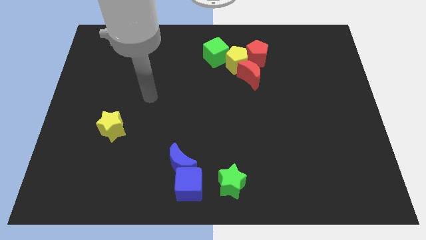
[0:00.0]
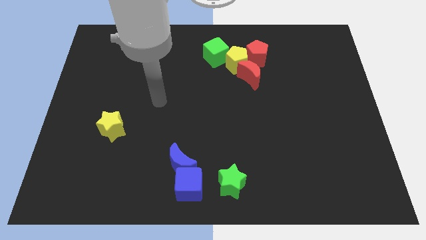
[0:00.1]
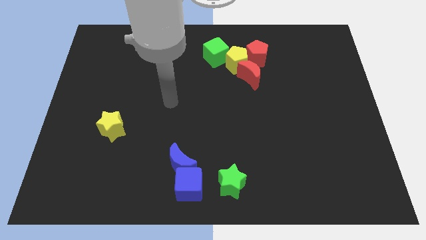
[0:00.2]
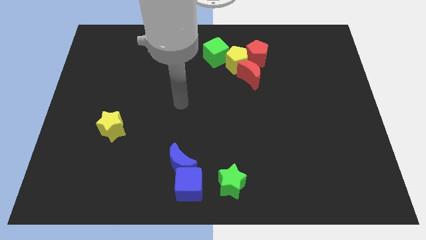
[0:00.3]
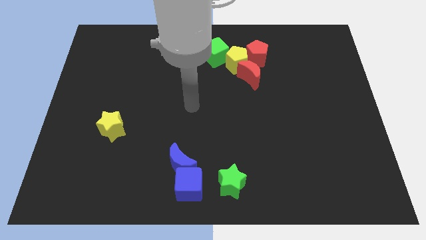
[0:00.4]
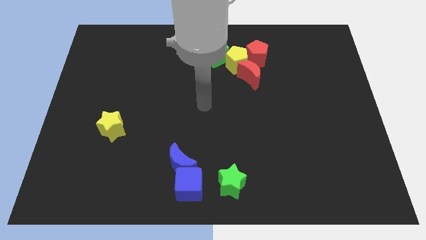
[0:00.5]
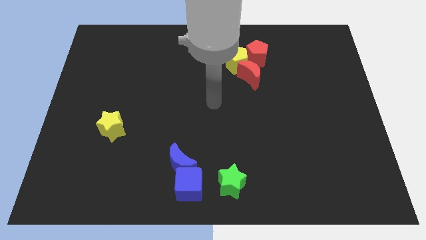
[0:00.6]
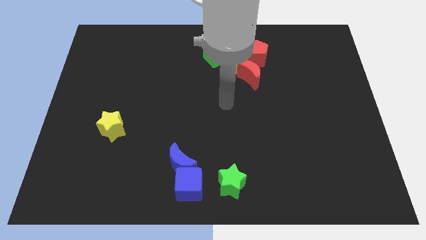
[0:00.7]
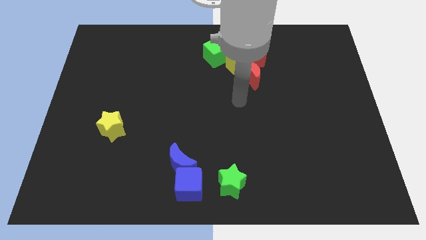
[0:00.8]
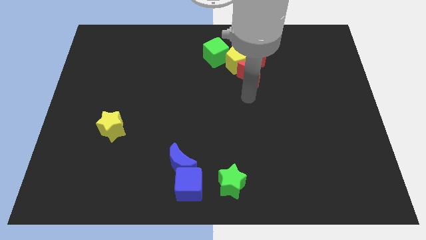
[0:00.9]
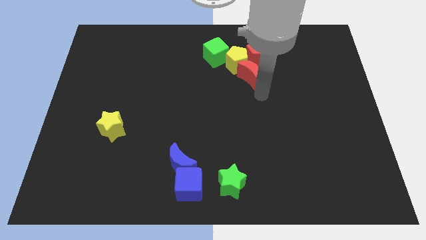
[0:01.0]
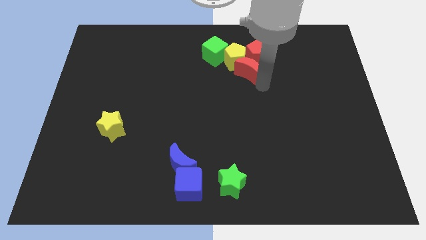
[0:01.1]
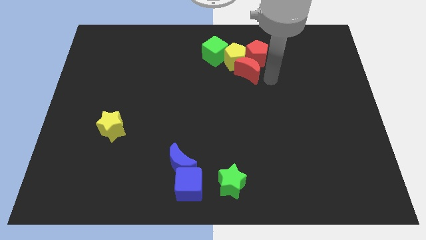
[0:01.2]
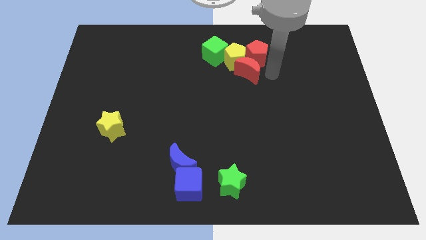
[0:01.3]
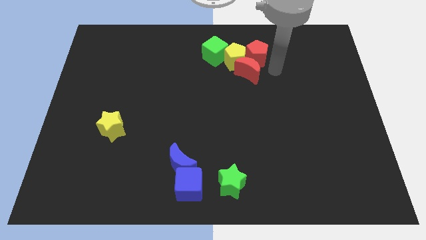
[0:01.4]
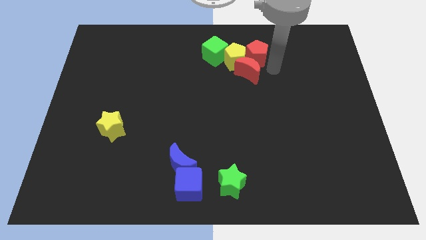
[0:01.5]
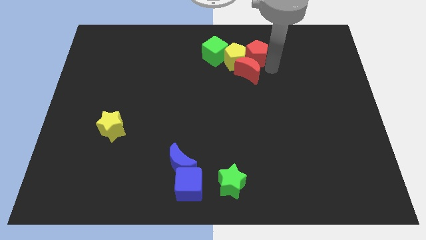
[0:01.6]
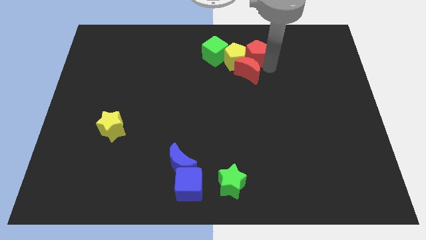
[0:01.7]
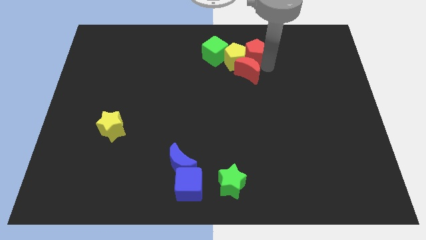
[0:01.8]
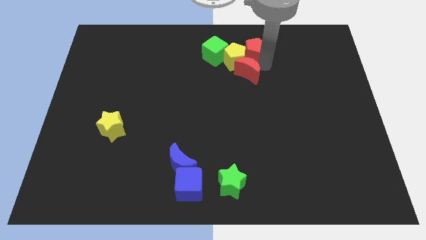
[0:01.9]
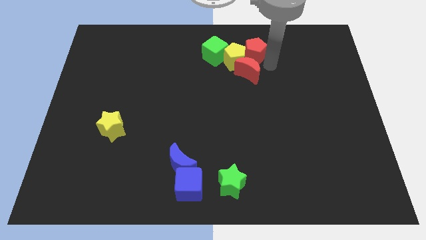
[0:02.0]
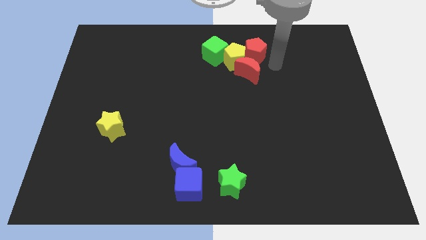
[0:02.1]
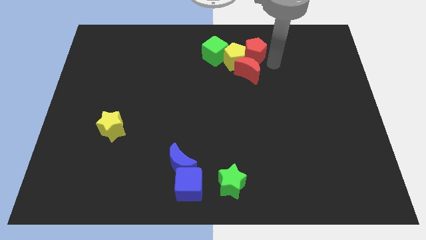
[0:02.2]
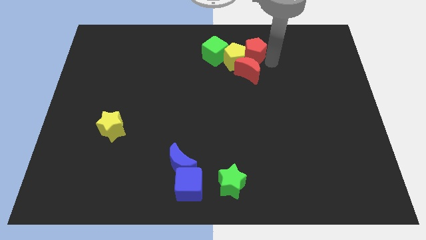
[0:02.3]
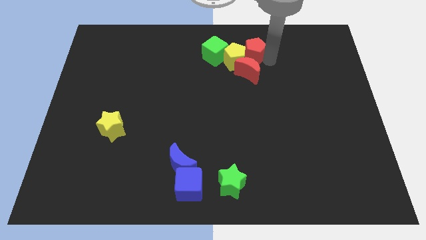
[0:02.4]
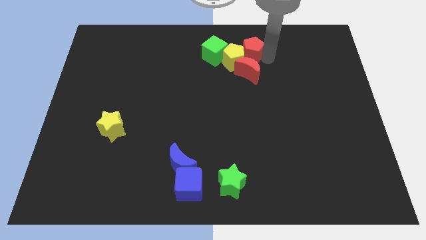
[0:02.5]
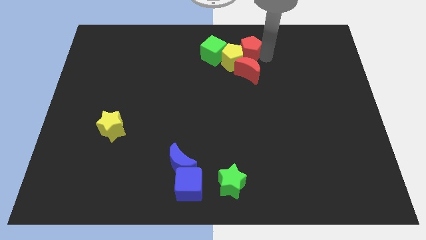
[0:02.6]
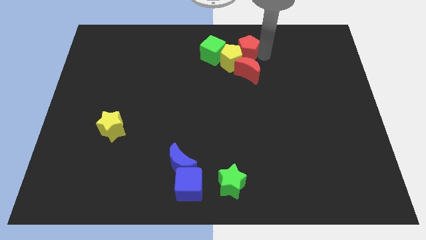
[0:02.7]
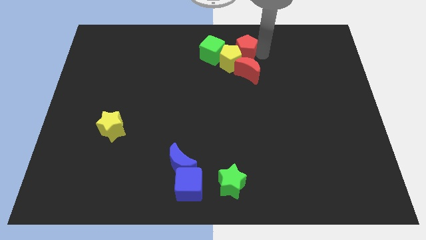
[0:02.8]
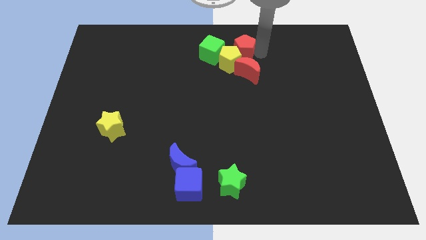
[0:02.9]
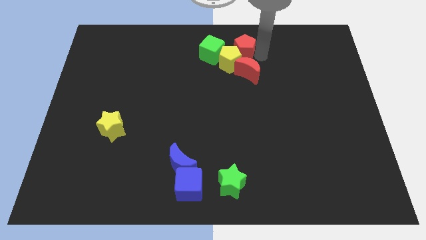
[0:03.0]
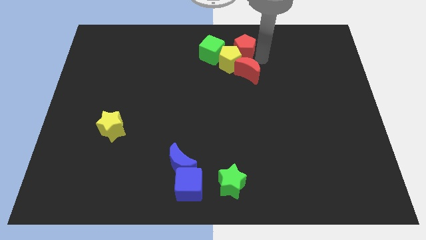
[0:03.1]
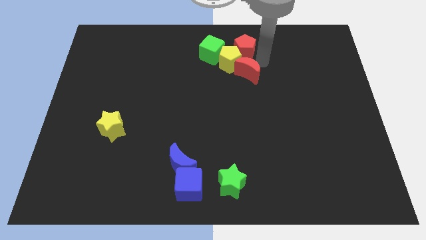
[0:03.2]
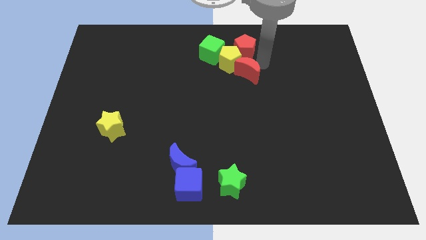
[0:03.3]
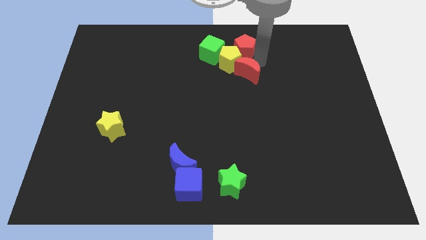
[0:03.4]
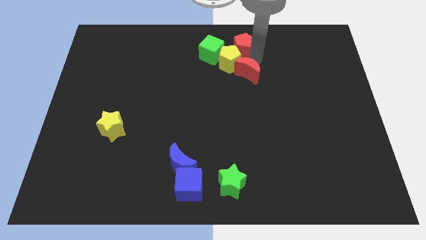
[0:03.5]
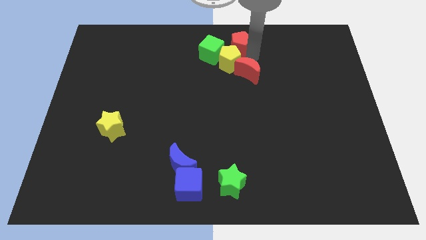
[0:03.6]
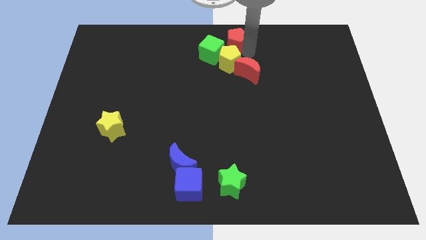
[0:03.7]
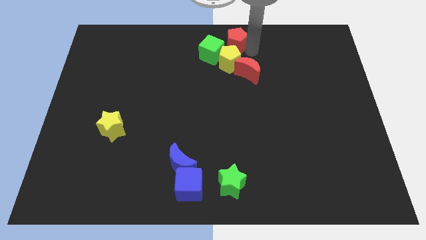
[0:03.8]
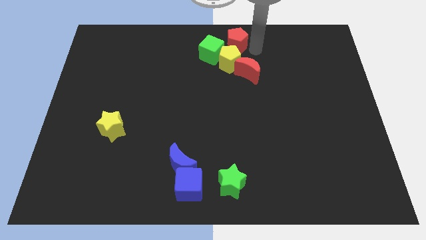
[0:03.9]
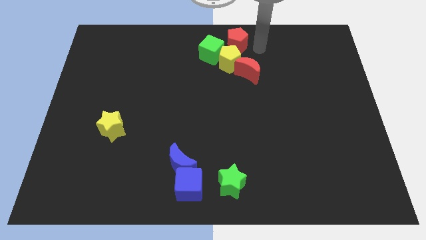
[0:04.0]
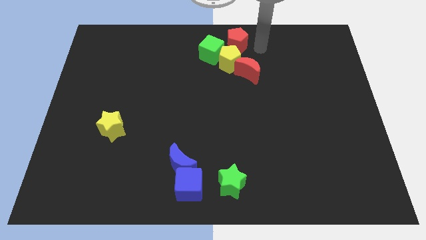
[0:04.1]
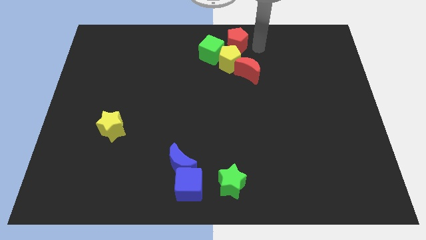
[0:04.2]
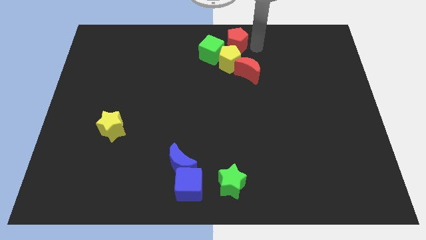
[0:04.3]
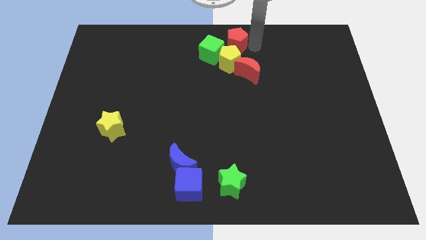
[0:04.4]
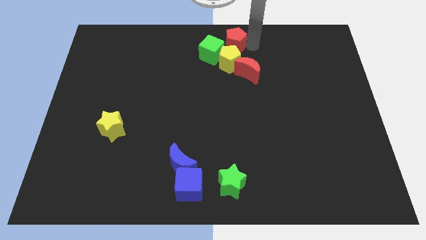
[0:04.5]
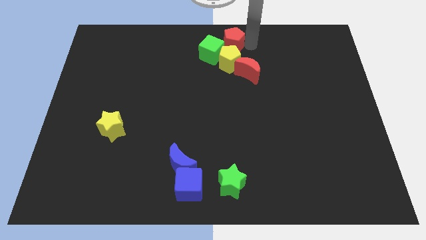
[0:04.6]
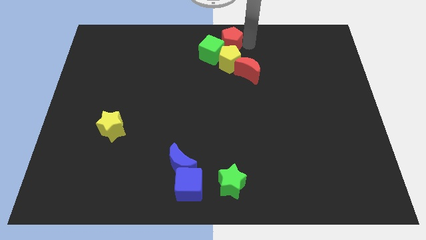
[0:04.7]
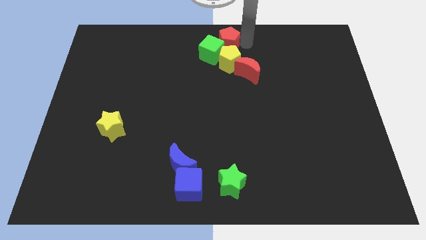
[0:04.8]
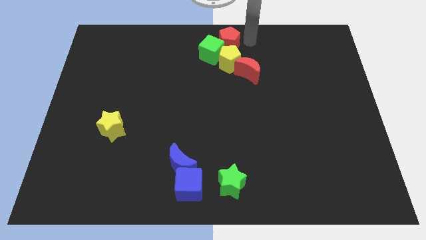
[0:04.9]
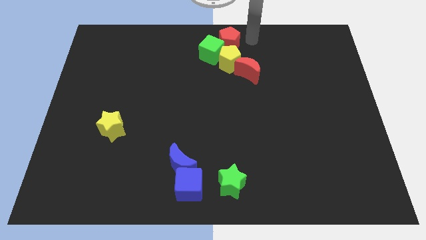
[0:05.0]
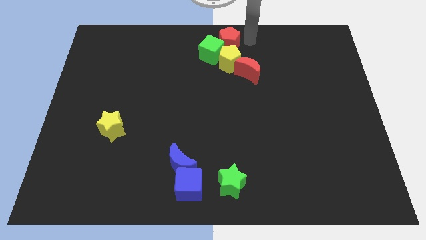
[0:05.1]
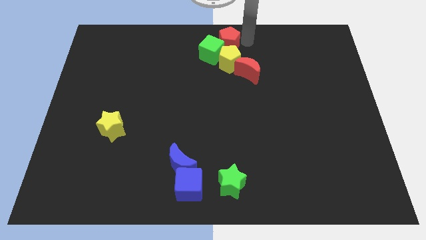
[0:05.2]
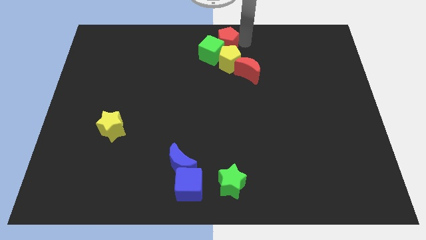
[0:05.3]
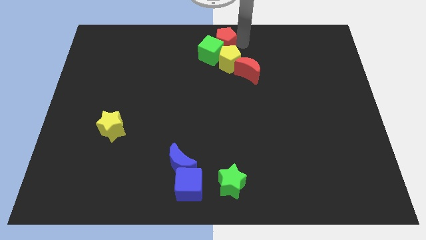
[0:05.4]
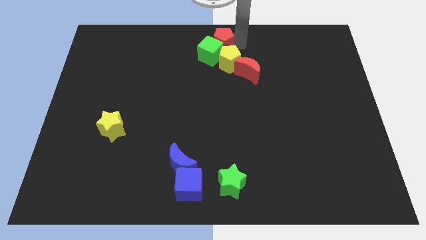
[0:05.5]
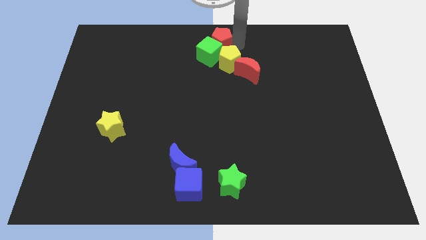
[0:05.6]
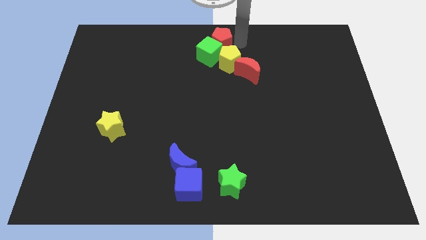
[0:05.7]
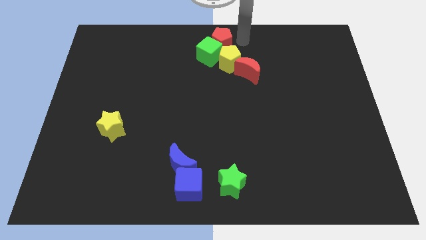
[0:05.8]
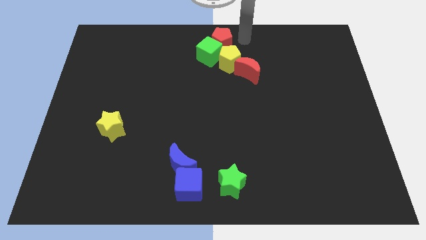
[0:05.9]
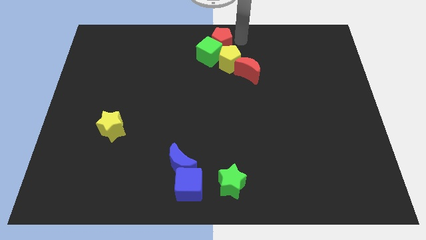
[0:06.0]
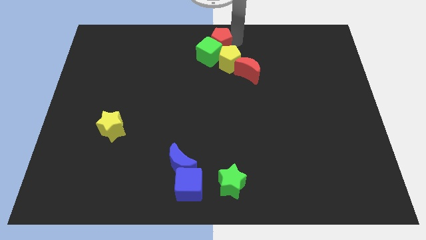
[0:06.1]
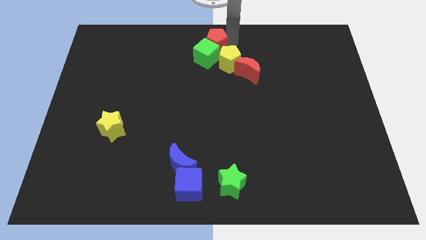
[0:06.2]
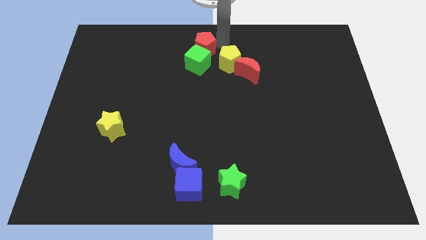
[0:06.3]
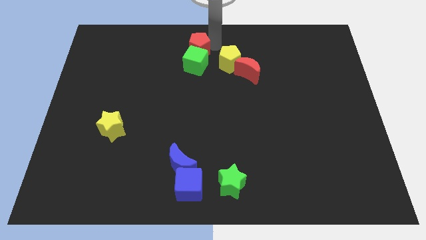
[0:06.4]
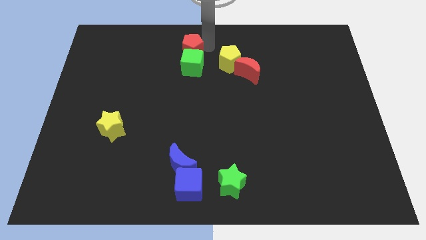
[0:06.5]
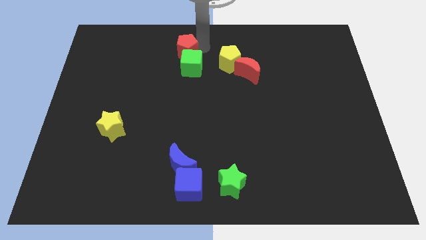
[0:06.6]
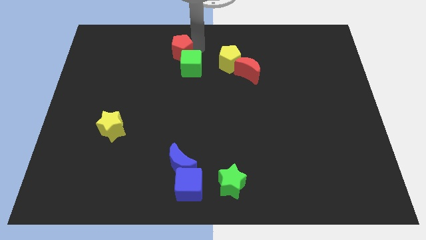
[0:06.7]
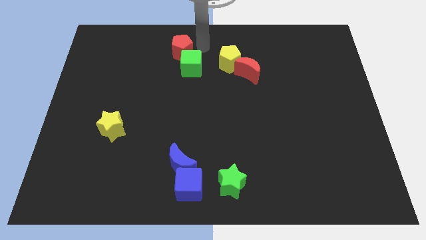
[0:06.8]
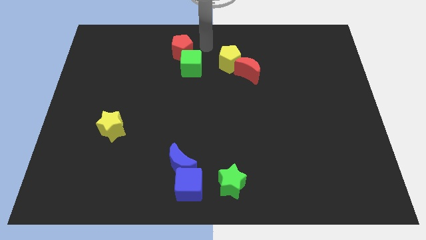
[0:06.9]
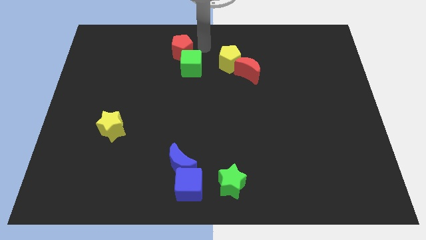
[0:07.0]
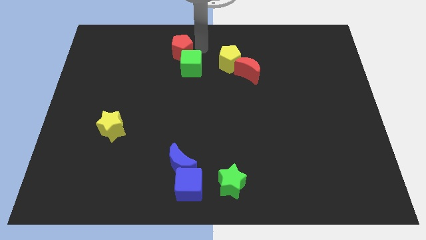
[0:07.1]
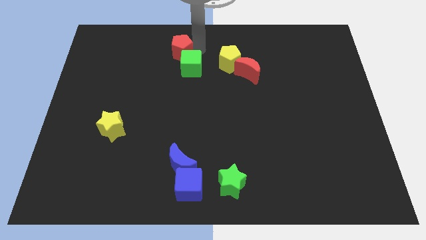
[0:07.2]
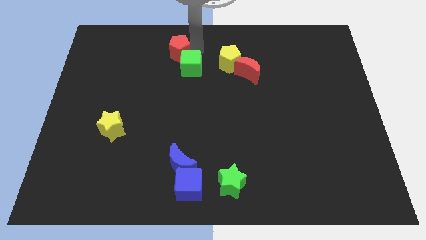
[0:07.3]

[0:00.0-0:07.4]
move the red pentagon to the left
